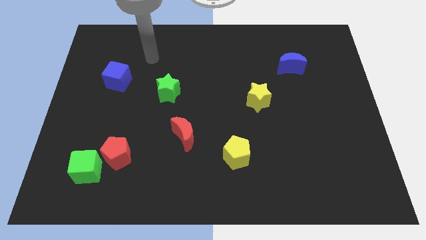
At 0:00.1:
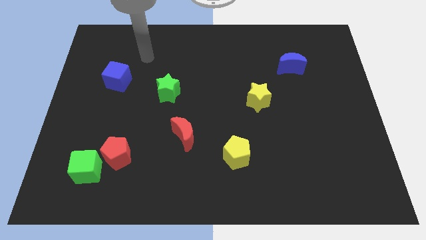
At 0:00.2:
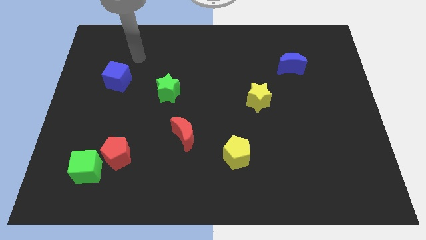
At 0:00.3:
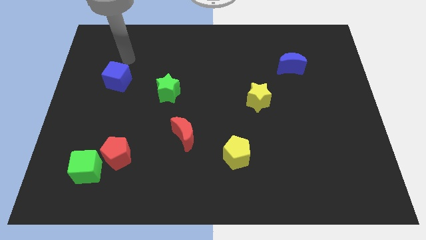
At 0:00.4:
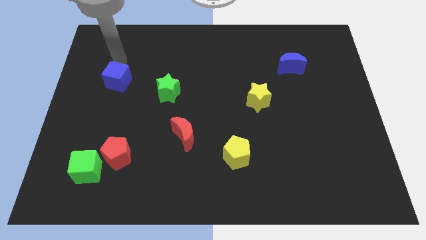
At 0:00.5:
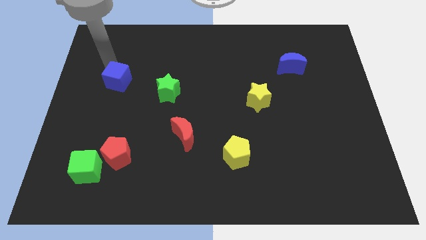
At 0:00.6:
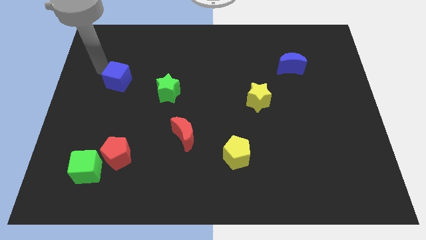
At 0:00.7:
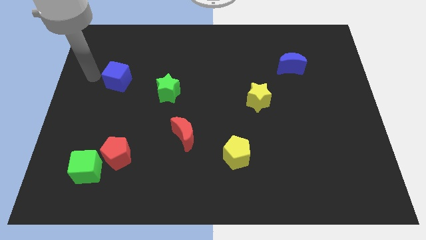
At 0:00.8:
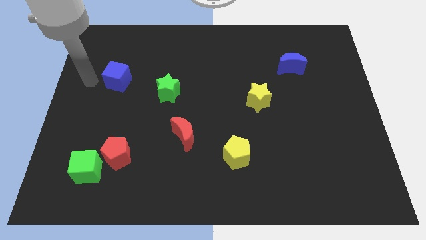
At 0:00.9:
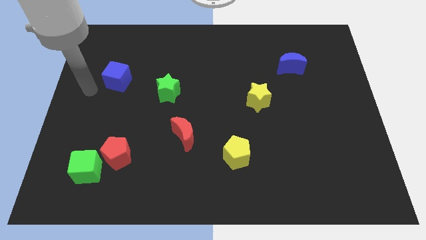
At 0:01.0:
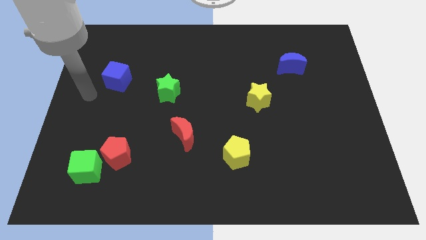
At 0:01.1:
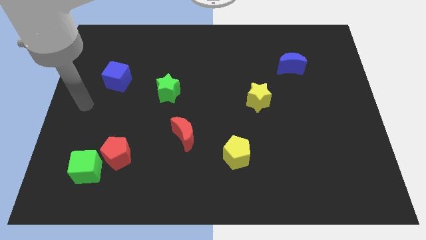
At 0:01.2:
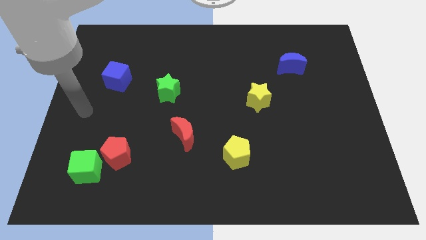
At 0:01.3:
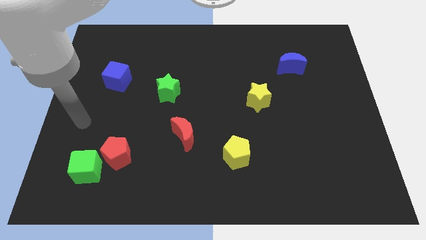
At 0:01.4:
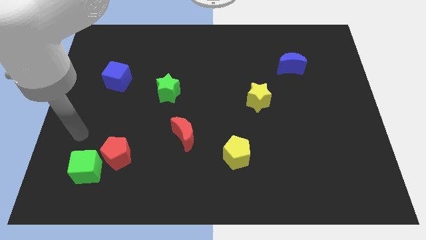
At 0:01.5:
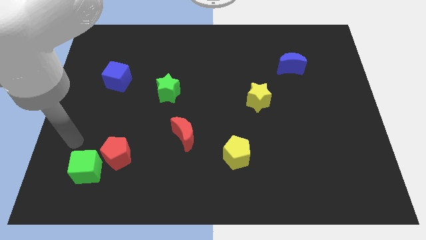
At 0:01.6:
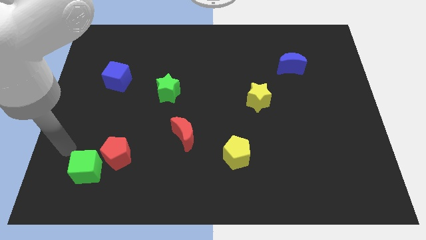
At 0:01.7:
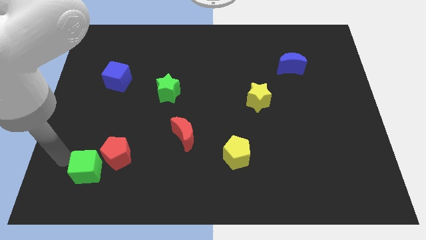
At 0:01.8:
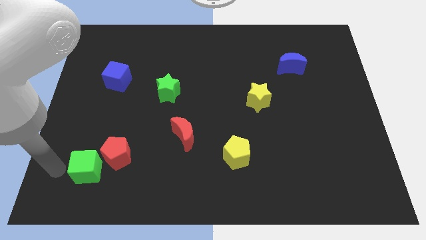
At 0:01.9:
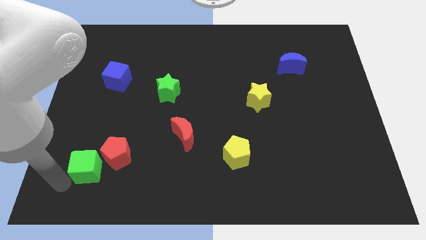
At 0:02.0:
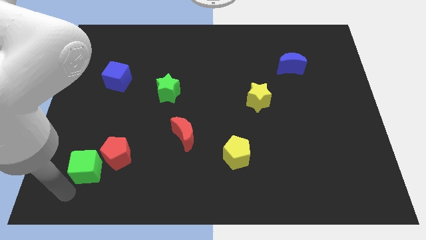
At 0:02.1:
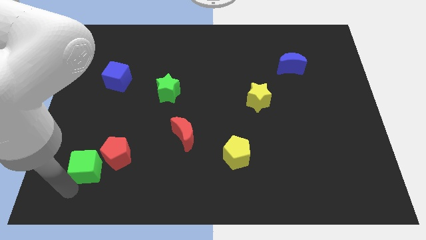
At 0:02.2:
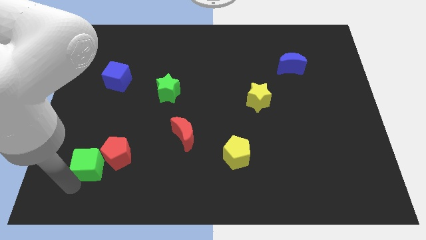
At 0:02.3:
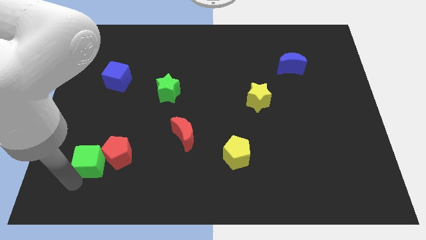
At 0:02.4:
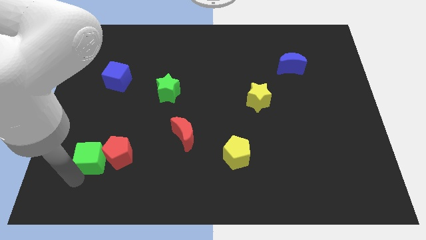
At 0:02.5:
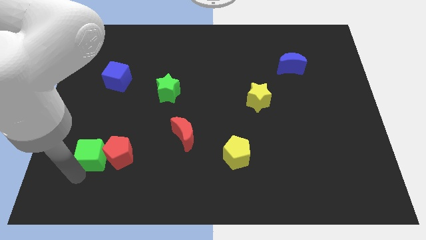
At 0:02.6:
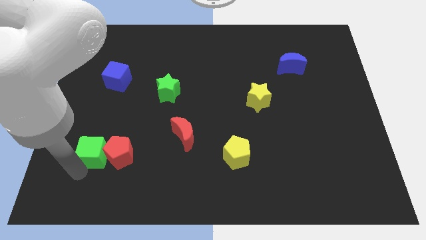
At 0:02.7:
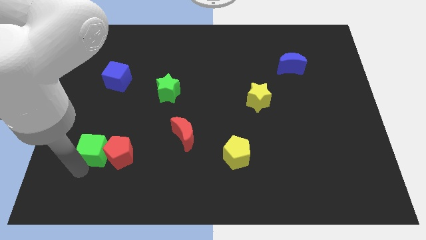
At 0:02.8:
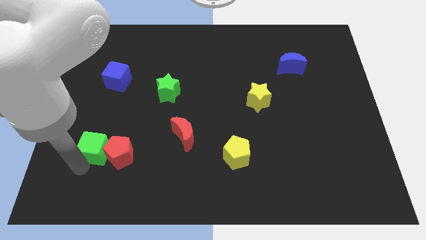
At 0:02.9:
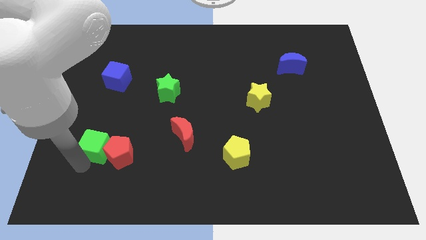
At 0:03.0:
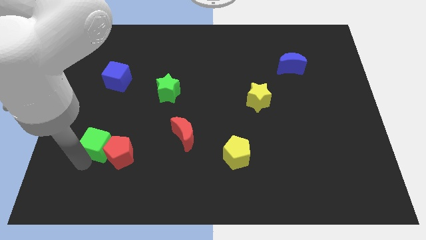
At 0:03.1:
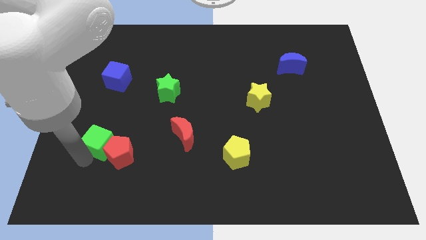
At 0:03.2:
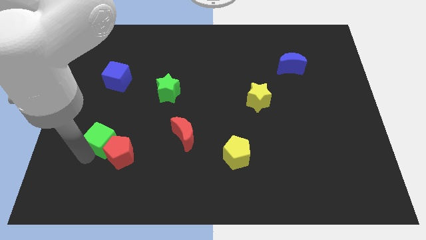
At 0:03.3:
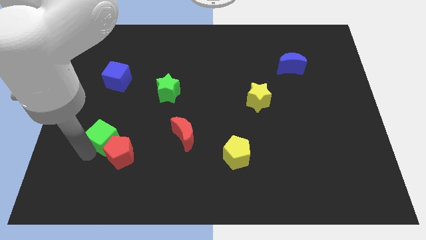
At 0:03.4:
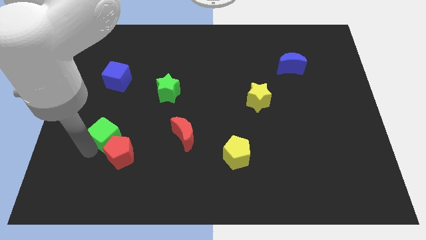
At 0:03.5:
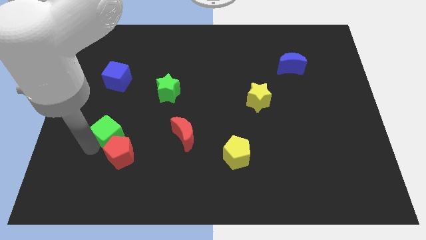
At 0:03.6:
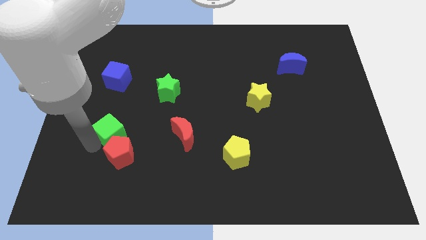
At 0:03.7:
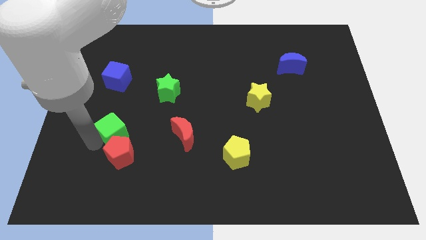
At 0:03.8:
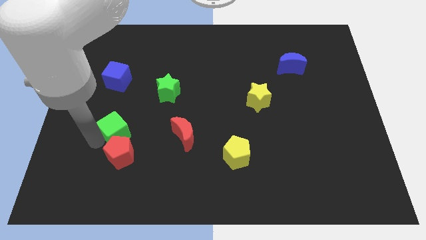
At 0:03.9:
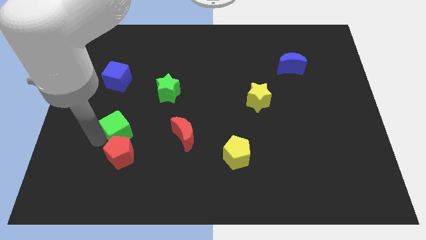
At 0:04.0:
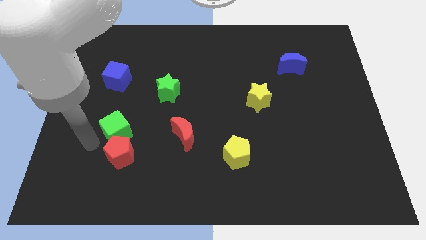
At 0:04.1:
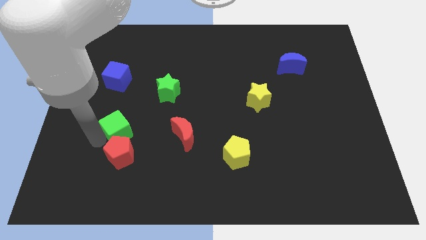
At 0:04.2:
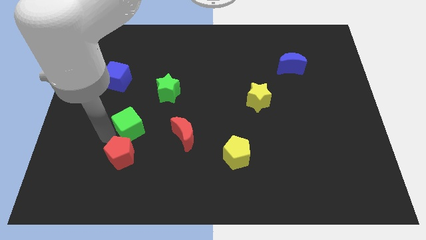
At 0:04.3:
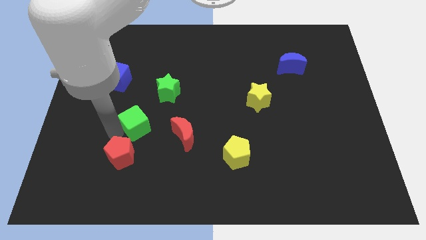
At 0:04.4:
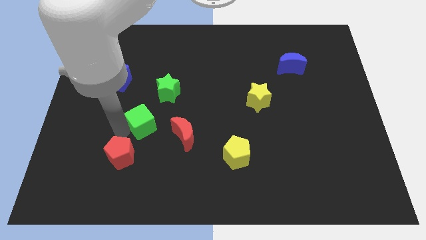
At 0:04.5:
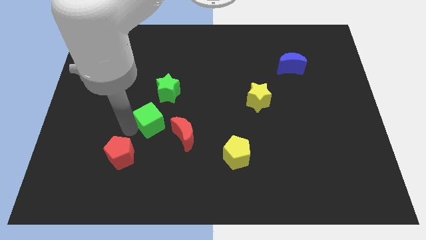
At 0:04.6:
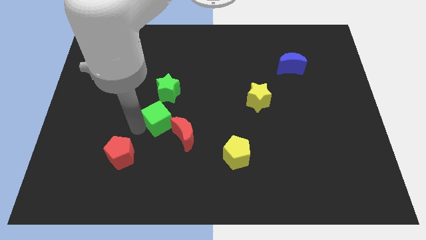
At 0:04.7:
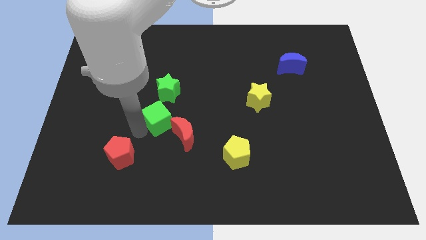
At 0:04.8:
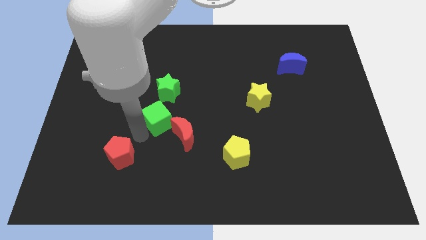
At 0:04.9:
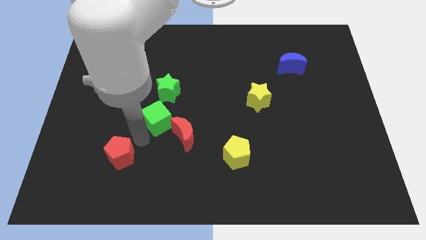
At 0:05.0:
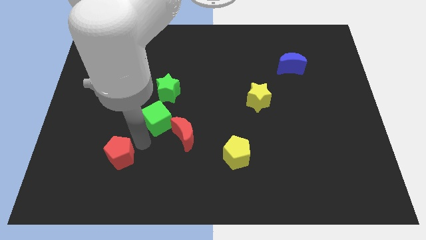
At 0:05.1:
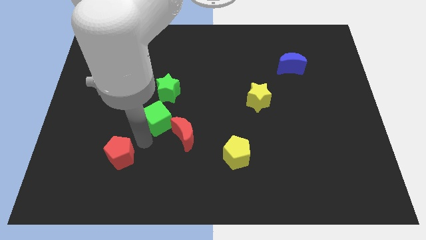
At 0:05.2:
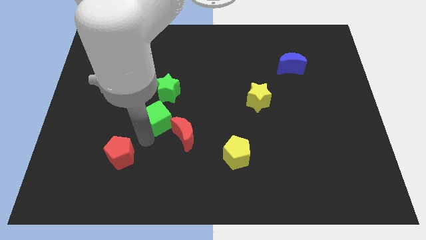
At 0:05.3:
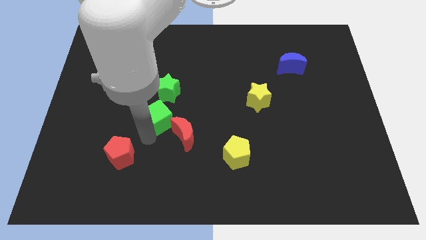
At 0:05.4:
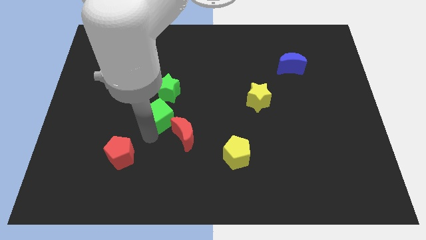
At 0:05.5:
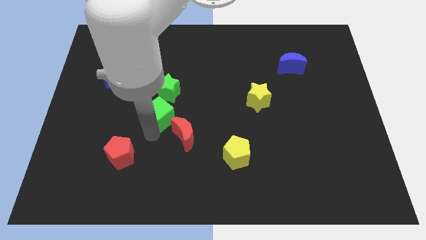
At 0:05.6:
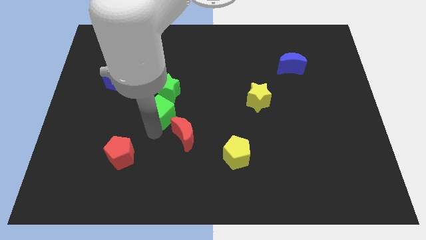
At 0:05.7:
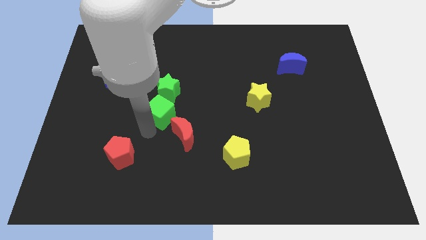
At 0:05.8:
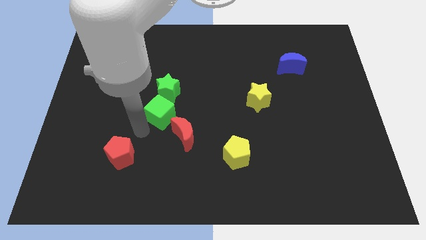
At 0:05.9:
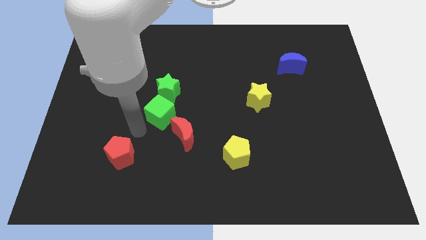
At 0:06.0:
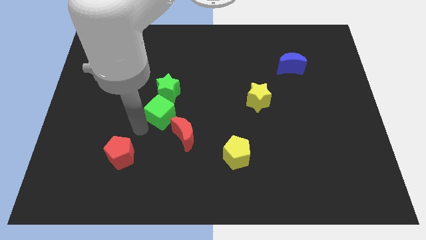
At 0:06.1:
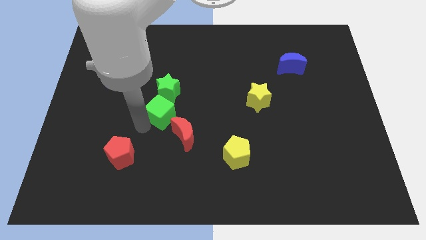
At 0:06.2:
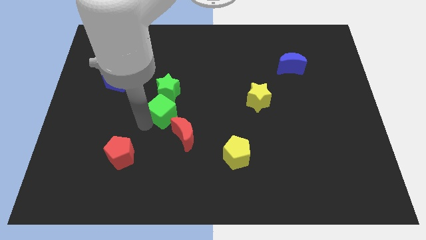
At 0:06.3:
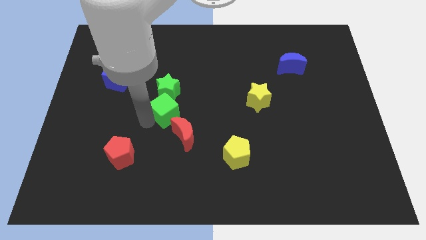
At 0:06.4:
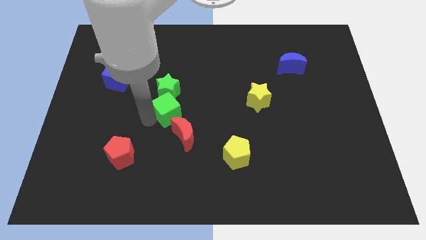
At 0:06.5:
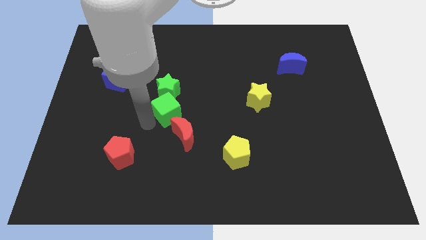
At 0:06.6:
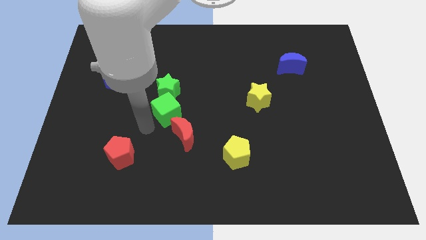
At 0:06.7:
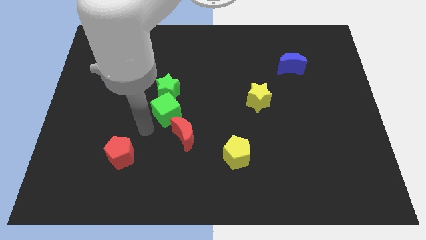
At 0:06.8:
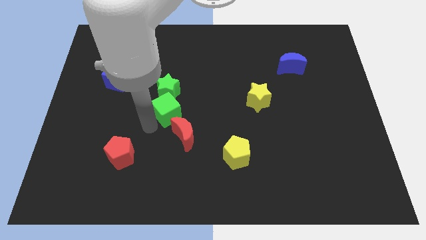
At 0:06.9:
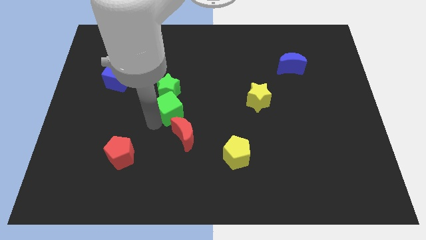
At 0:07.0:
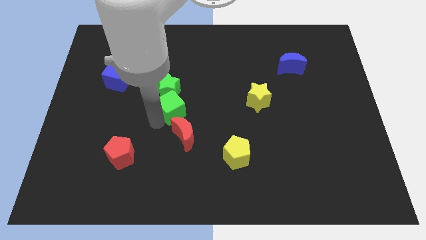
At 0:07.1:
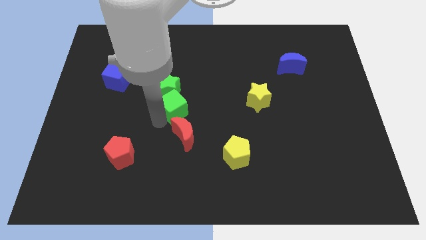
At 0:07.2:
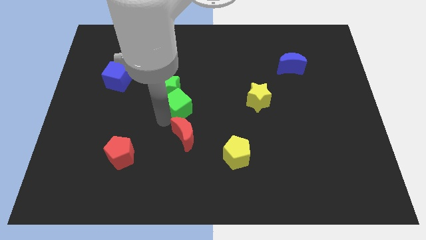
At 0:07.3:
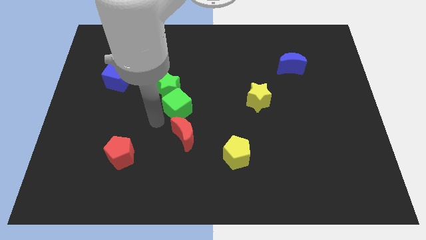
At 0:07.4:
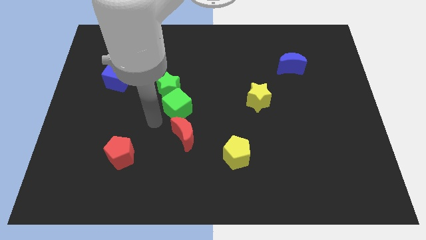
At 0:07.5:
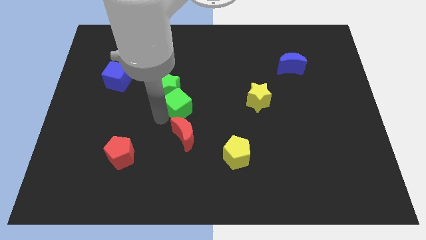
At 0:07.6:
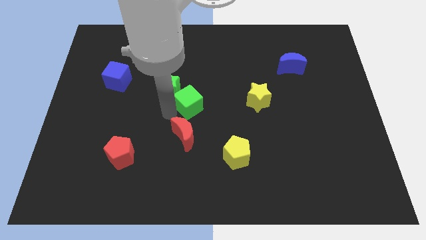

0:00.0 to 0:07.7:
move the green cube right of the green star
